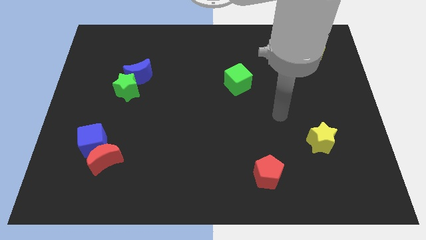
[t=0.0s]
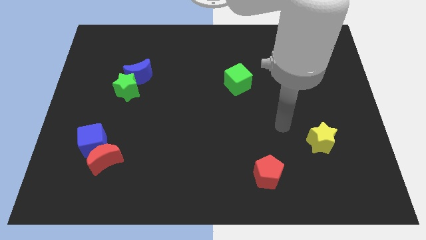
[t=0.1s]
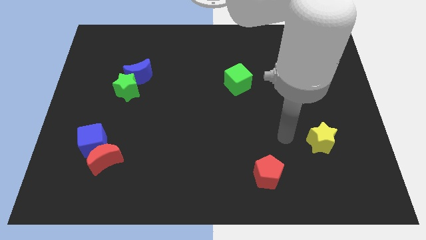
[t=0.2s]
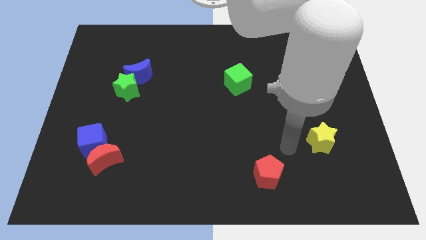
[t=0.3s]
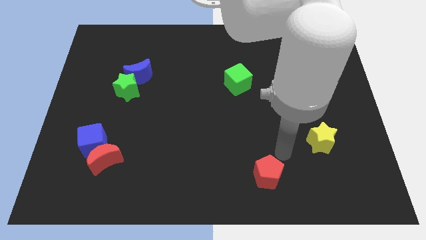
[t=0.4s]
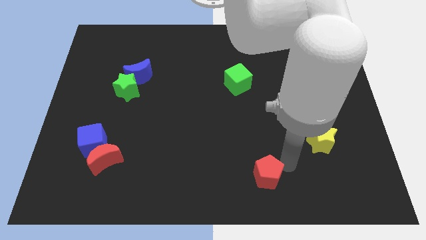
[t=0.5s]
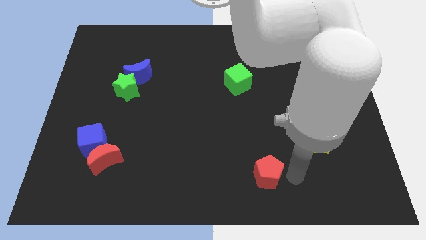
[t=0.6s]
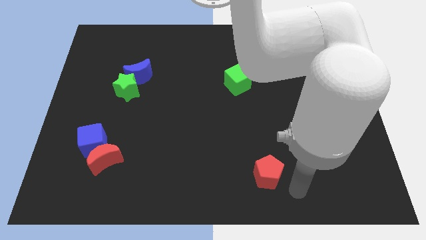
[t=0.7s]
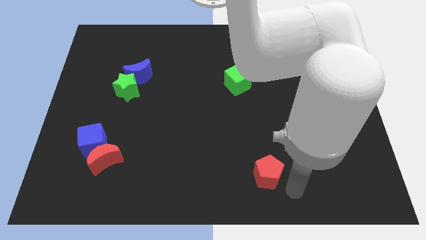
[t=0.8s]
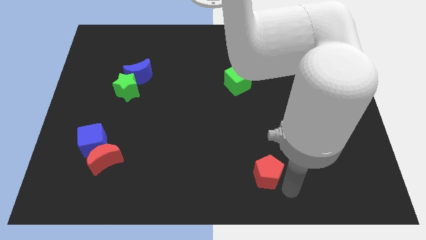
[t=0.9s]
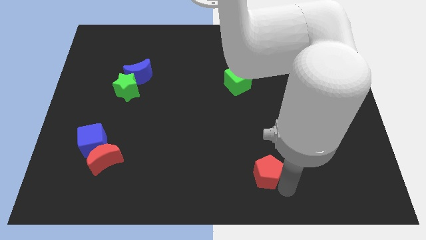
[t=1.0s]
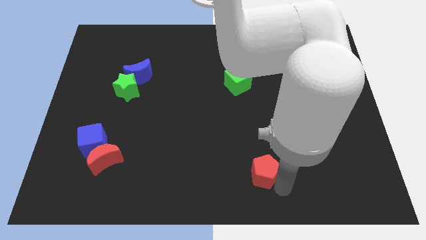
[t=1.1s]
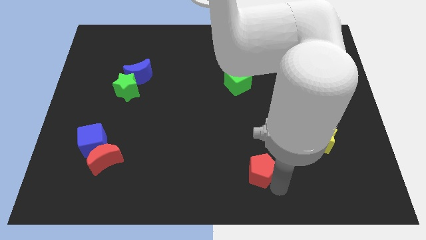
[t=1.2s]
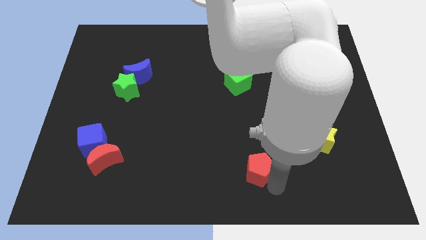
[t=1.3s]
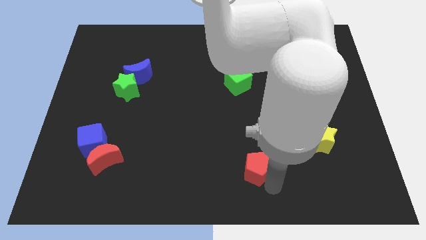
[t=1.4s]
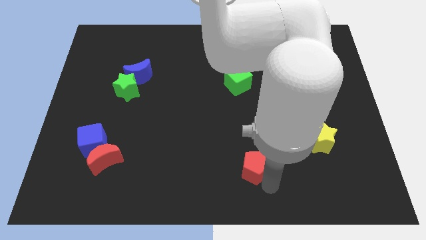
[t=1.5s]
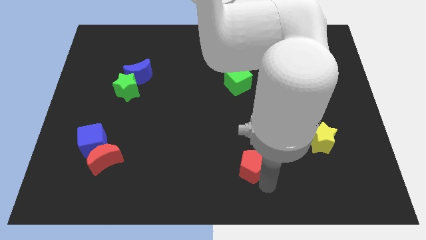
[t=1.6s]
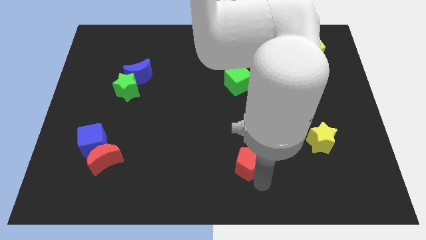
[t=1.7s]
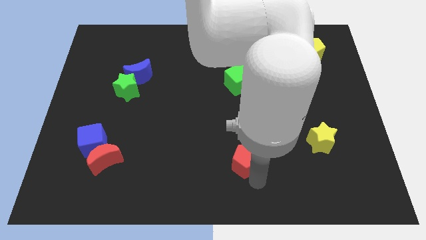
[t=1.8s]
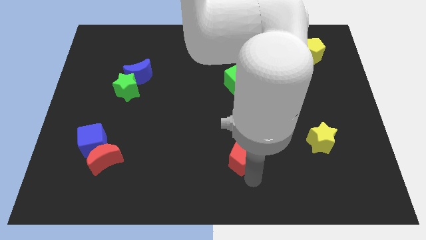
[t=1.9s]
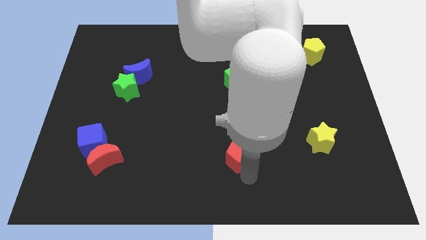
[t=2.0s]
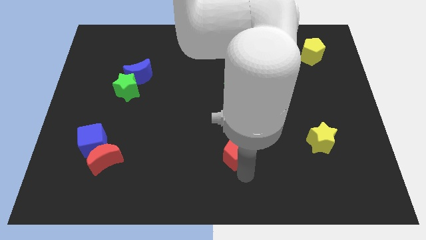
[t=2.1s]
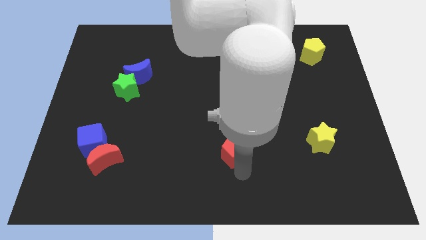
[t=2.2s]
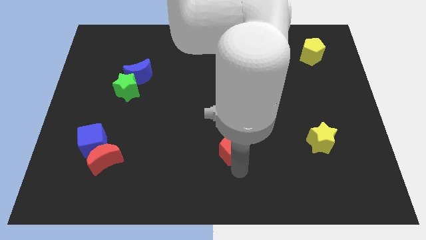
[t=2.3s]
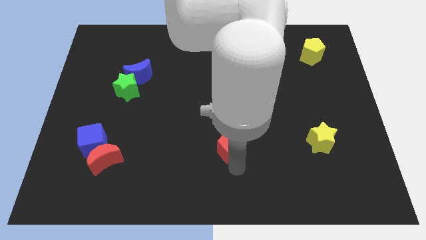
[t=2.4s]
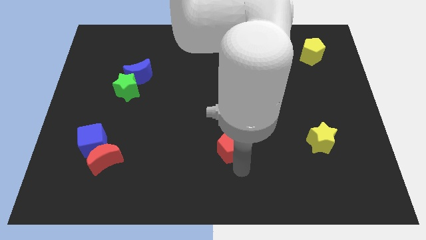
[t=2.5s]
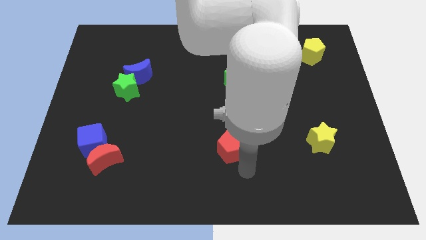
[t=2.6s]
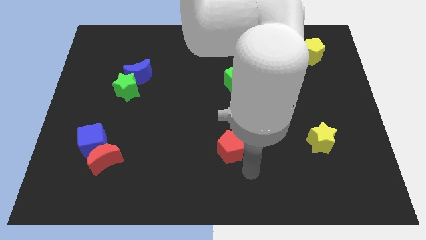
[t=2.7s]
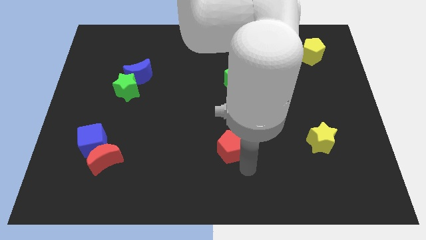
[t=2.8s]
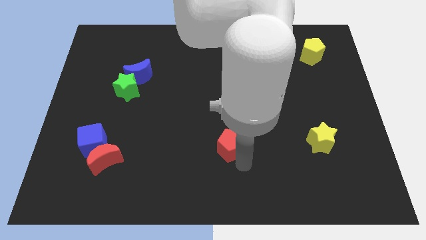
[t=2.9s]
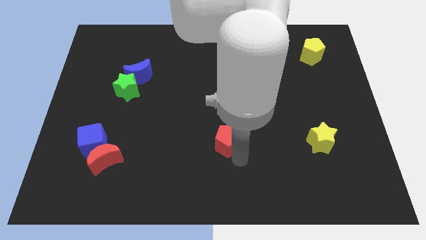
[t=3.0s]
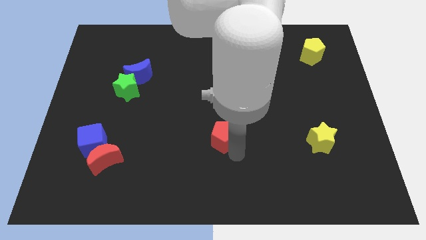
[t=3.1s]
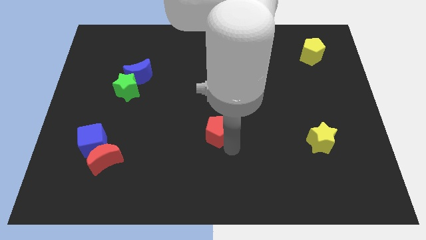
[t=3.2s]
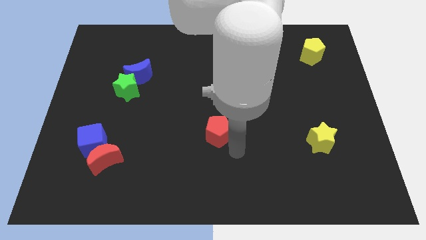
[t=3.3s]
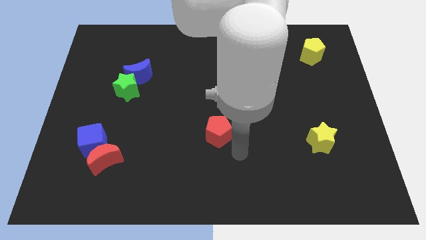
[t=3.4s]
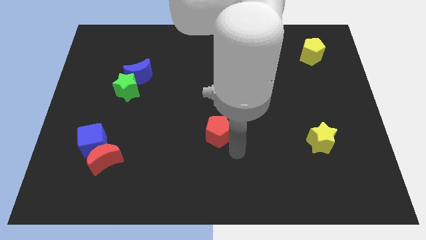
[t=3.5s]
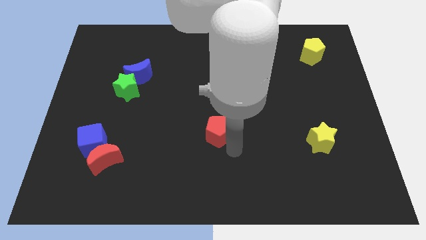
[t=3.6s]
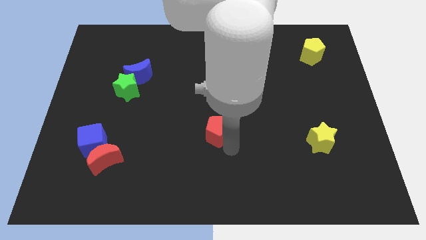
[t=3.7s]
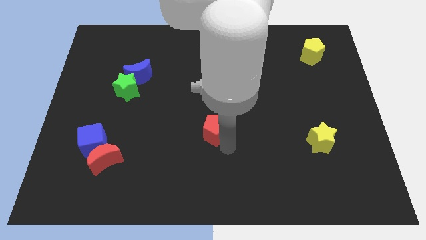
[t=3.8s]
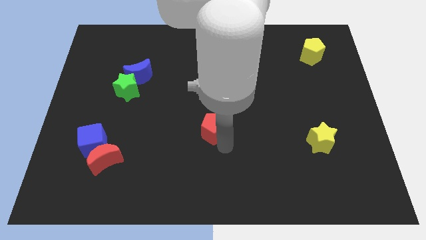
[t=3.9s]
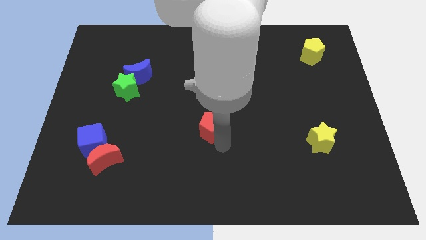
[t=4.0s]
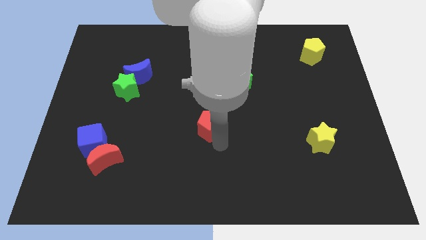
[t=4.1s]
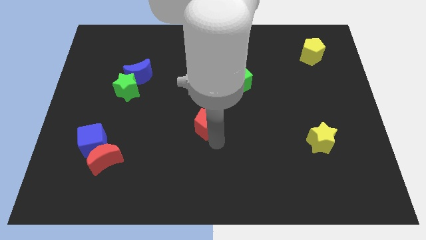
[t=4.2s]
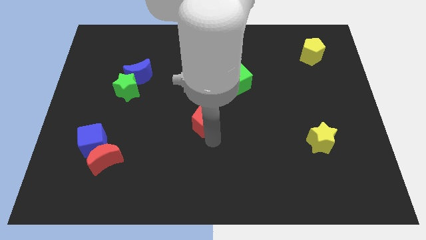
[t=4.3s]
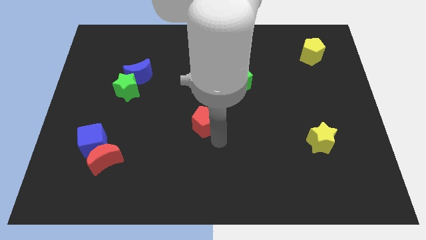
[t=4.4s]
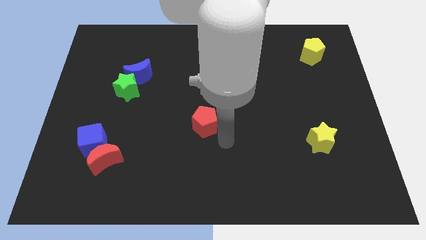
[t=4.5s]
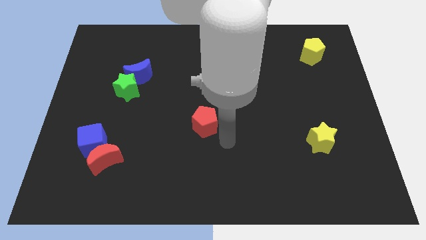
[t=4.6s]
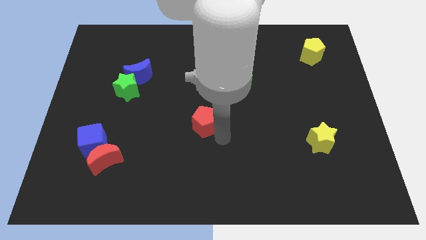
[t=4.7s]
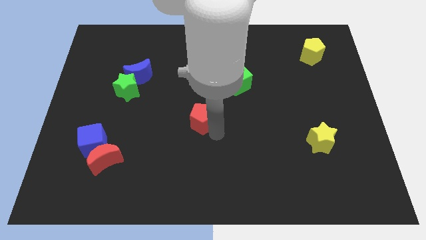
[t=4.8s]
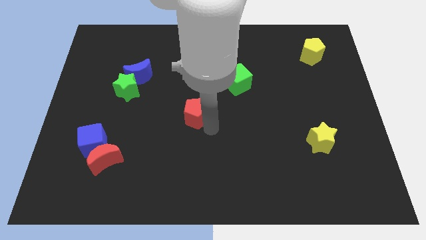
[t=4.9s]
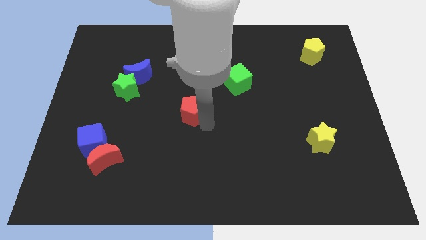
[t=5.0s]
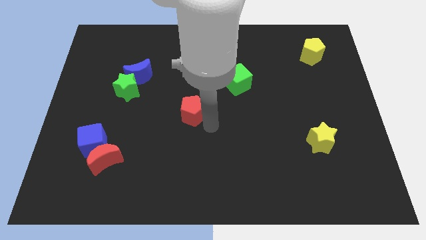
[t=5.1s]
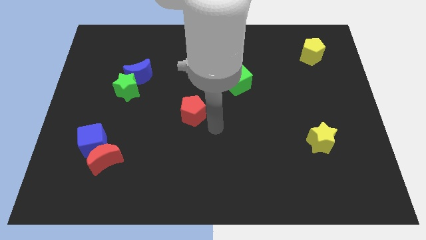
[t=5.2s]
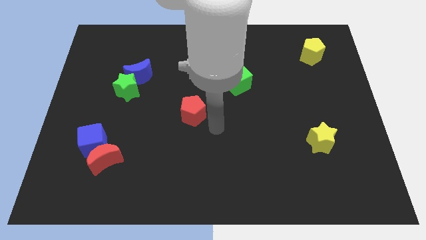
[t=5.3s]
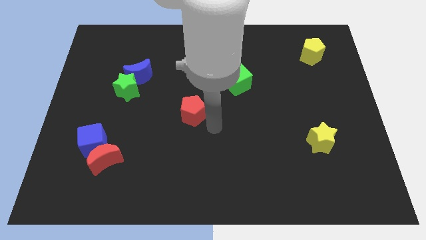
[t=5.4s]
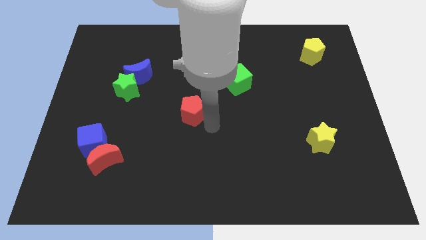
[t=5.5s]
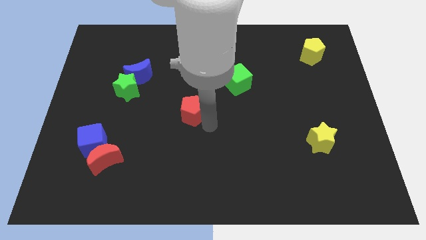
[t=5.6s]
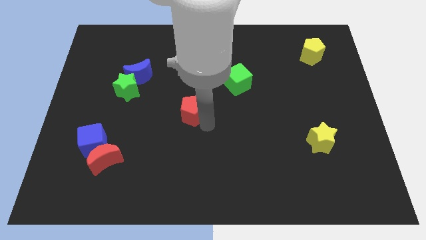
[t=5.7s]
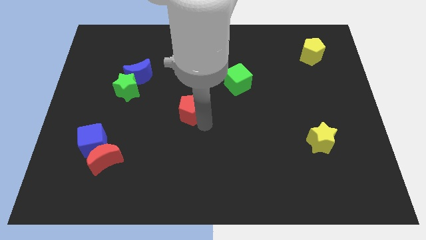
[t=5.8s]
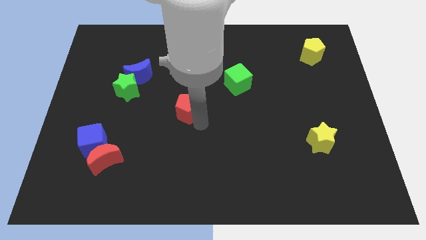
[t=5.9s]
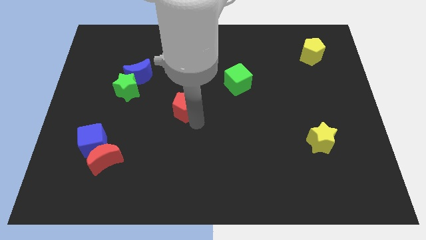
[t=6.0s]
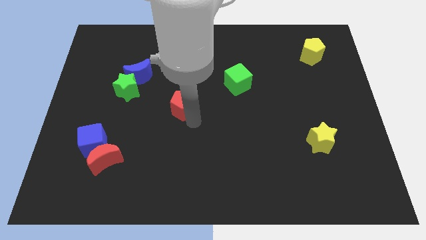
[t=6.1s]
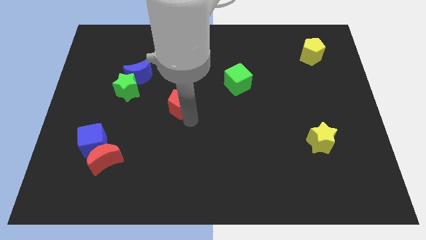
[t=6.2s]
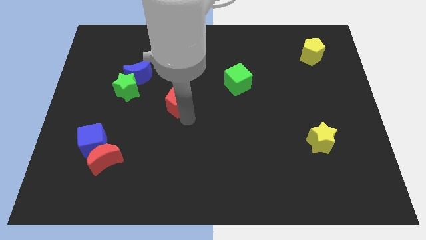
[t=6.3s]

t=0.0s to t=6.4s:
put the red pentagon right of the green star
